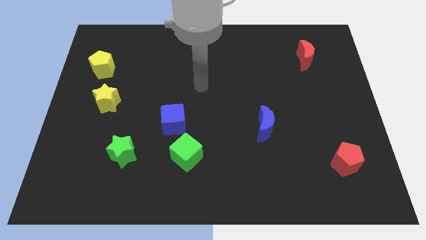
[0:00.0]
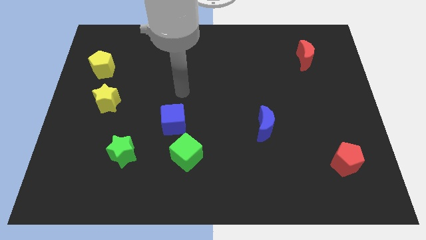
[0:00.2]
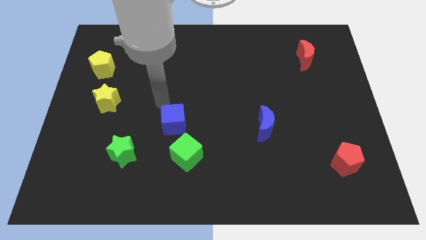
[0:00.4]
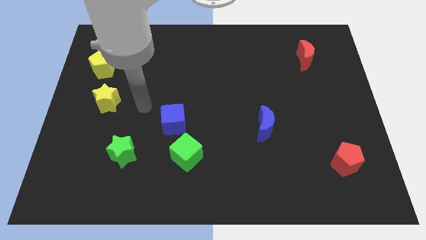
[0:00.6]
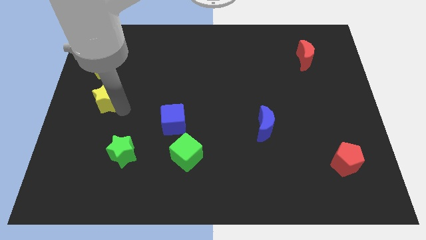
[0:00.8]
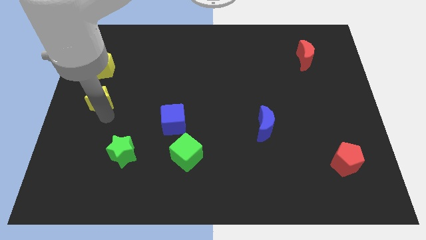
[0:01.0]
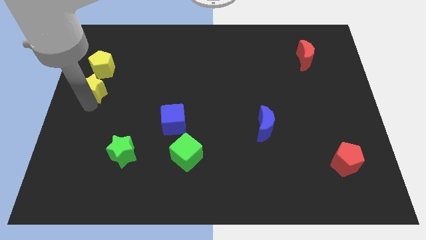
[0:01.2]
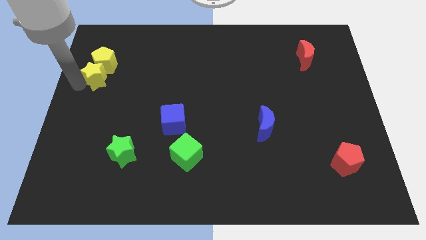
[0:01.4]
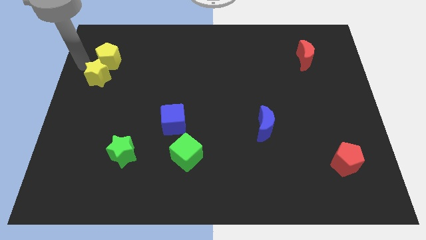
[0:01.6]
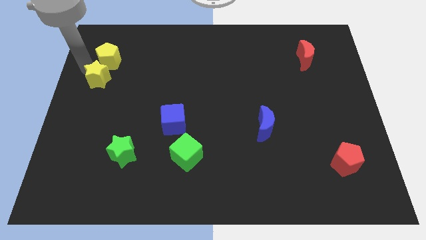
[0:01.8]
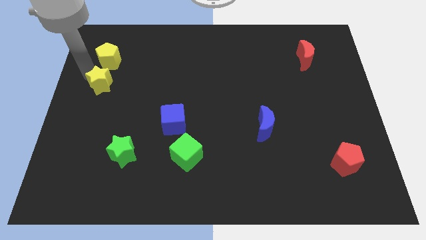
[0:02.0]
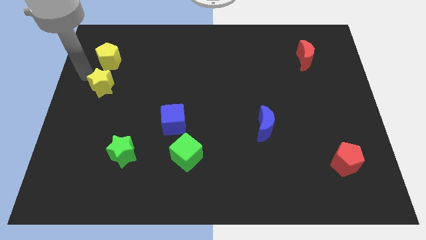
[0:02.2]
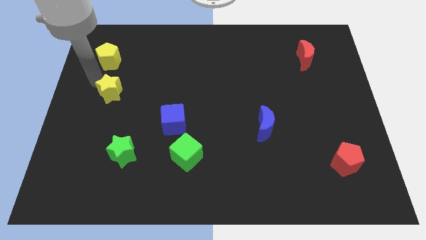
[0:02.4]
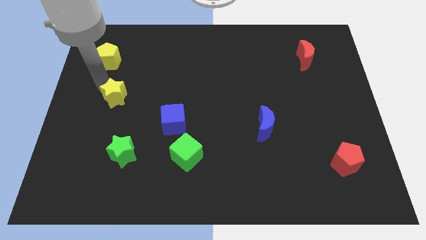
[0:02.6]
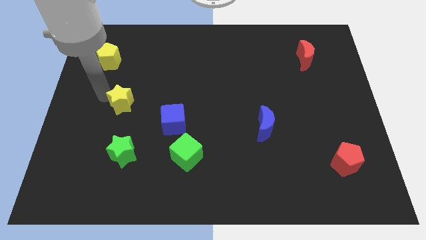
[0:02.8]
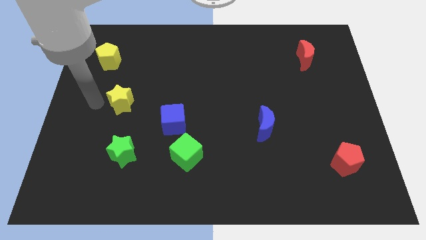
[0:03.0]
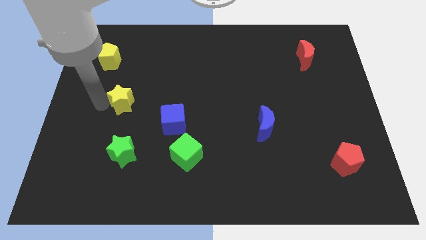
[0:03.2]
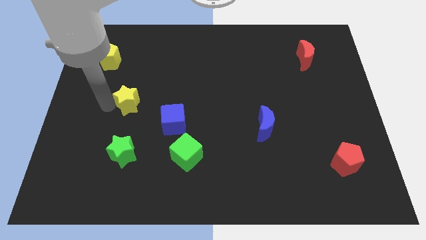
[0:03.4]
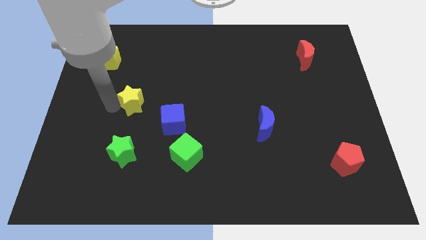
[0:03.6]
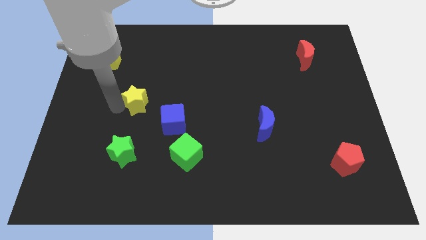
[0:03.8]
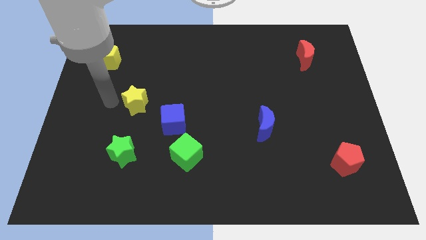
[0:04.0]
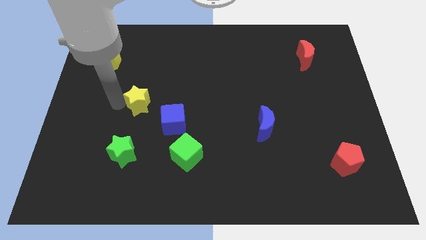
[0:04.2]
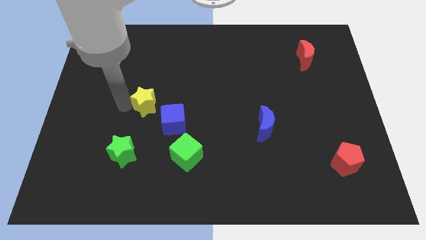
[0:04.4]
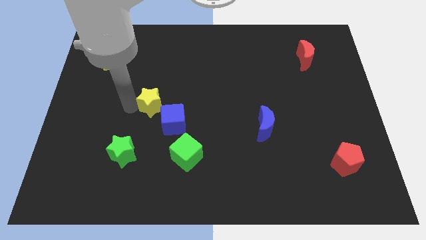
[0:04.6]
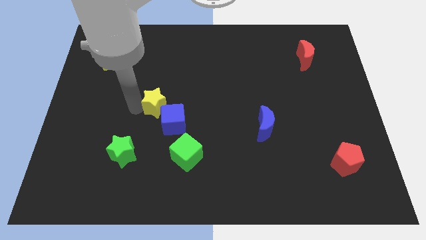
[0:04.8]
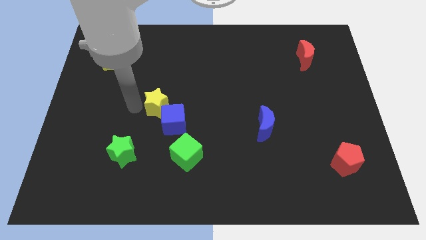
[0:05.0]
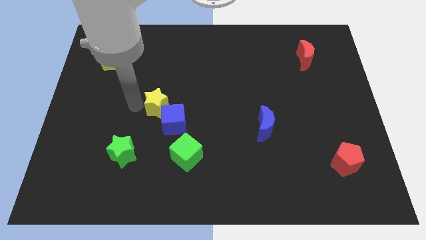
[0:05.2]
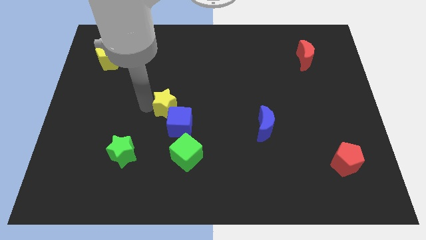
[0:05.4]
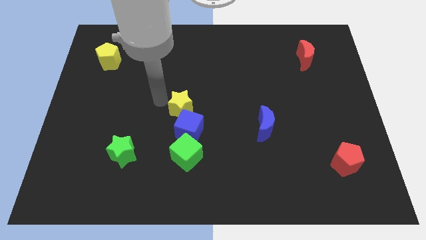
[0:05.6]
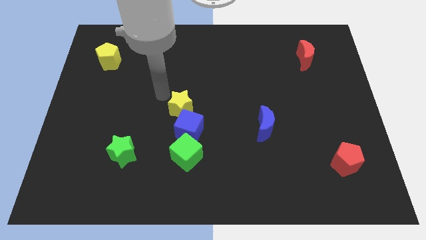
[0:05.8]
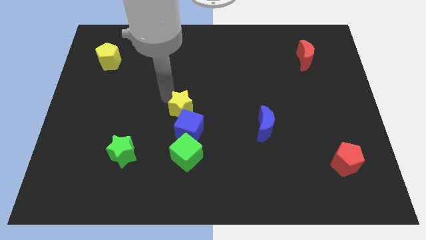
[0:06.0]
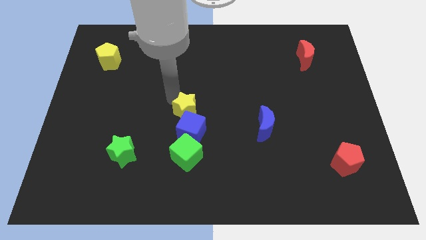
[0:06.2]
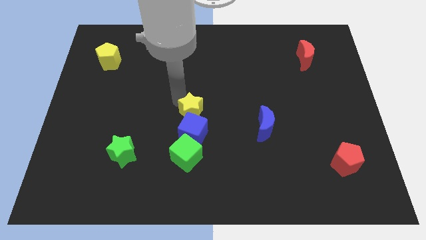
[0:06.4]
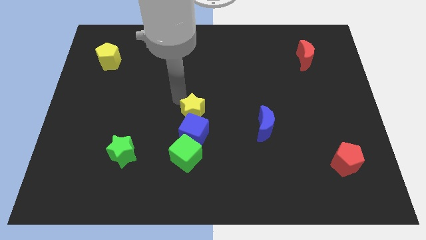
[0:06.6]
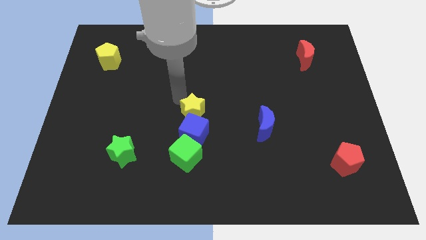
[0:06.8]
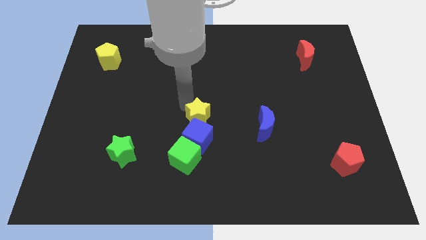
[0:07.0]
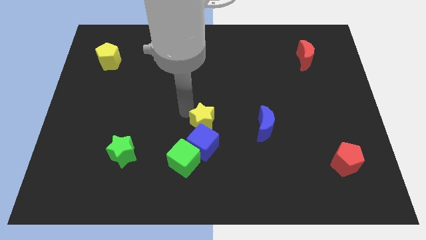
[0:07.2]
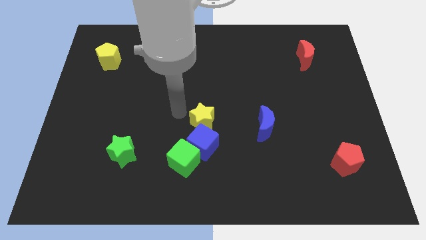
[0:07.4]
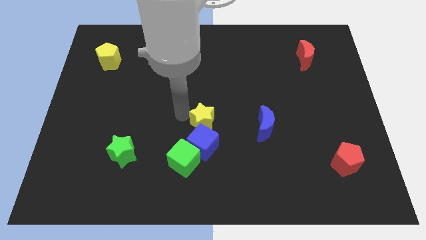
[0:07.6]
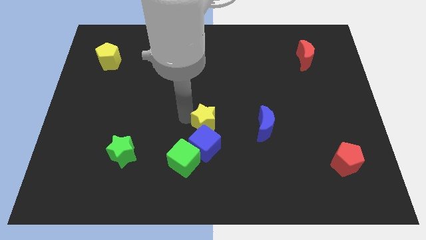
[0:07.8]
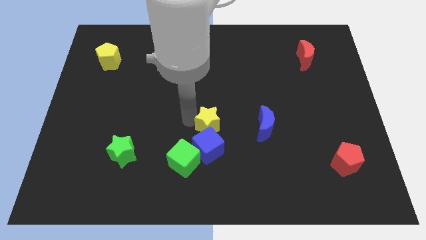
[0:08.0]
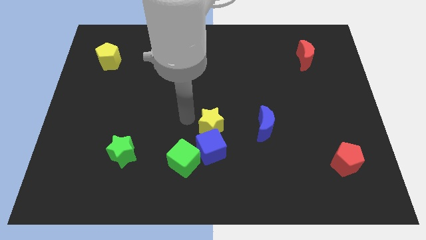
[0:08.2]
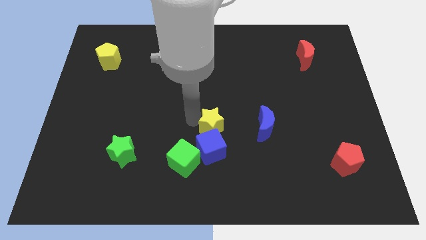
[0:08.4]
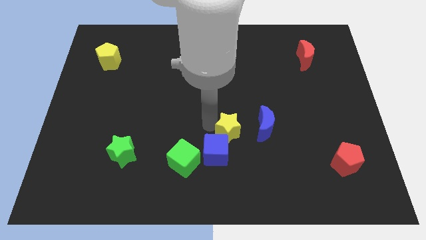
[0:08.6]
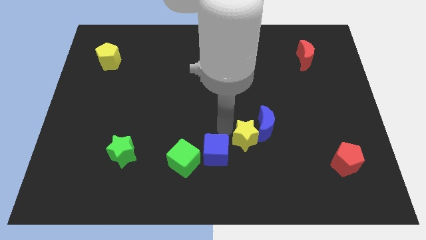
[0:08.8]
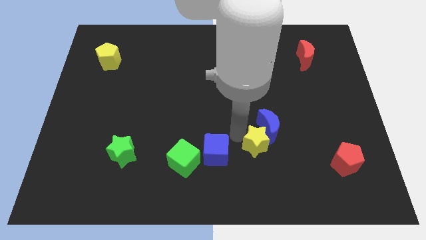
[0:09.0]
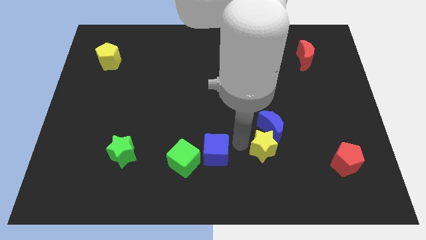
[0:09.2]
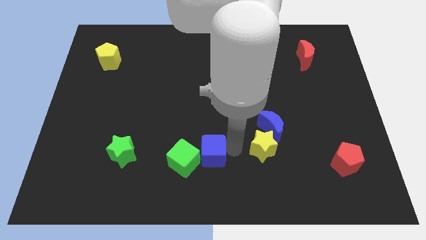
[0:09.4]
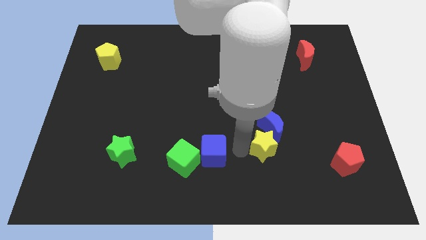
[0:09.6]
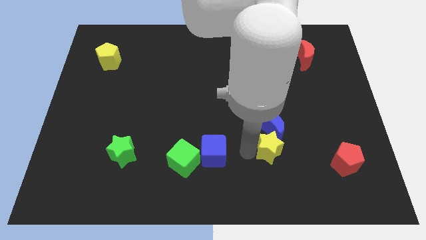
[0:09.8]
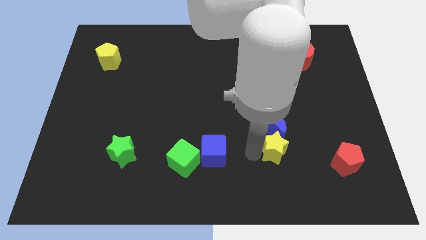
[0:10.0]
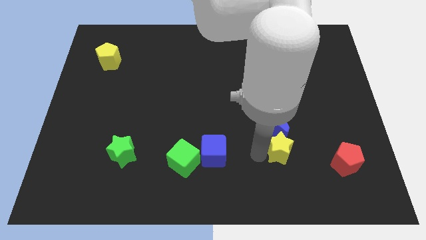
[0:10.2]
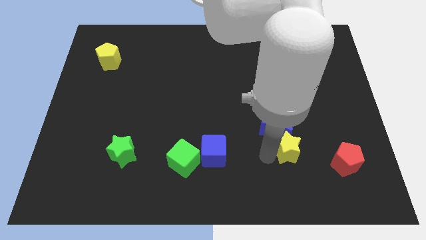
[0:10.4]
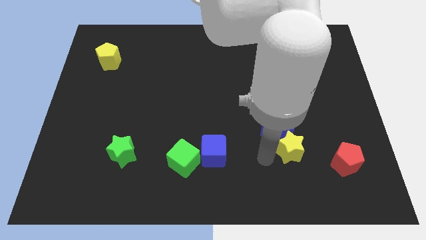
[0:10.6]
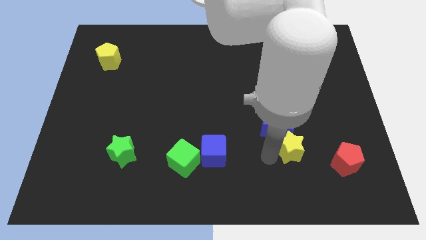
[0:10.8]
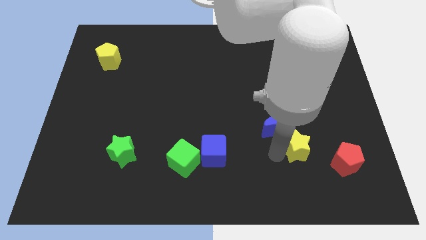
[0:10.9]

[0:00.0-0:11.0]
put the yellow star diagonally up and to the left of the red pentagon

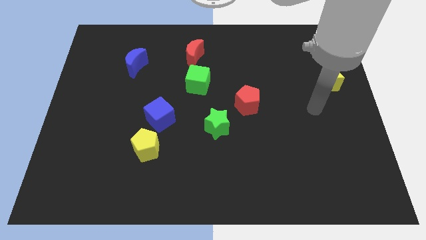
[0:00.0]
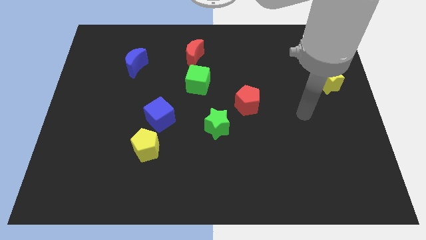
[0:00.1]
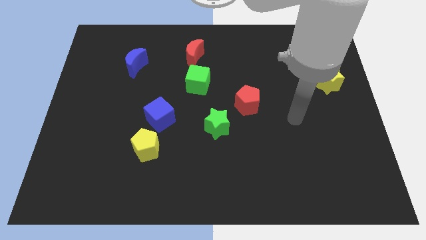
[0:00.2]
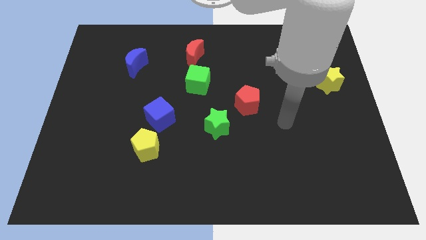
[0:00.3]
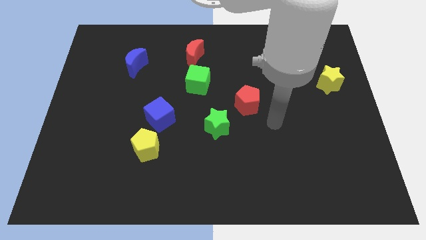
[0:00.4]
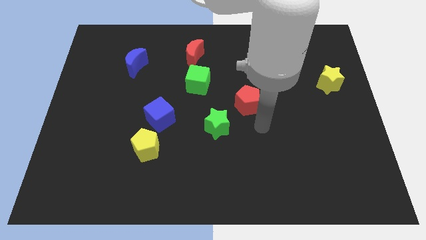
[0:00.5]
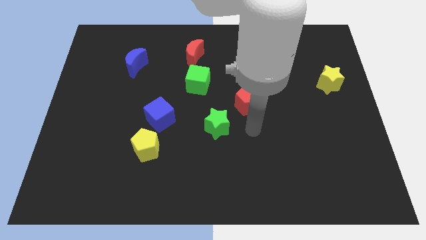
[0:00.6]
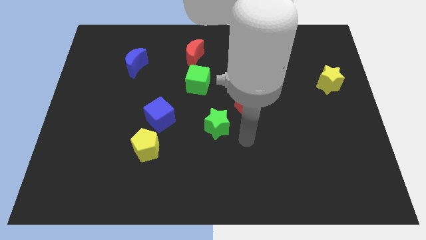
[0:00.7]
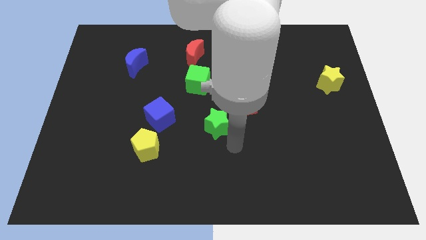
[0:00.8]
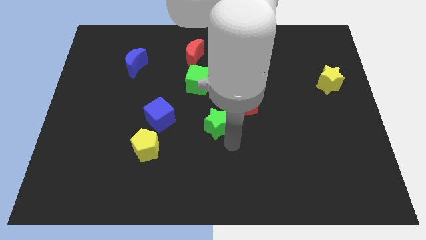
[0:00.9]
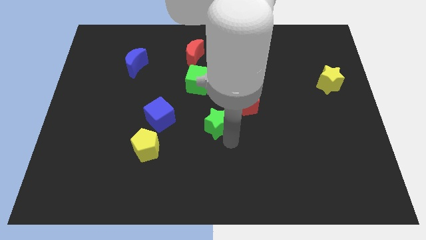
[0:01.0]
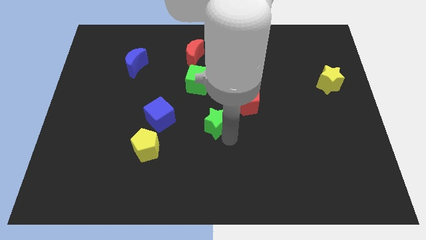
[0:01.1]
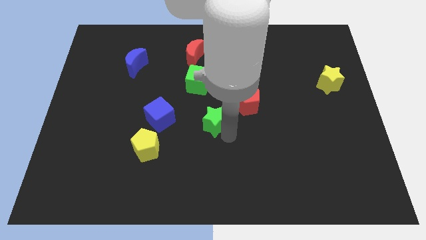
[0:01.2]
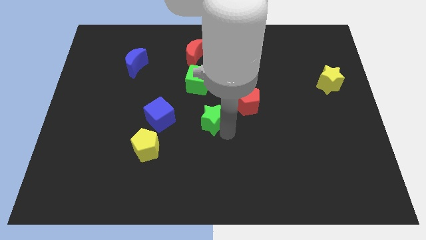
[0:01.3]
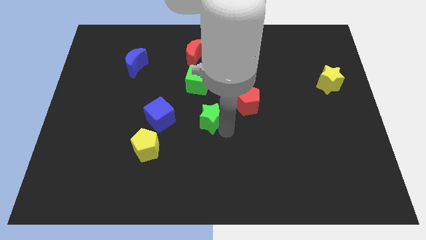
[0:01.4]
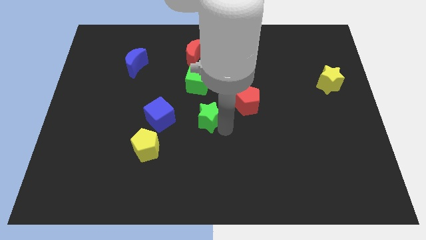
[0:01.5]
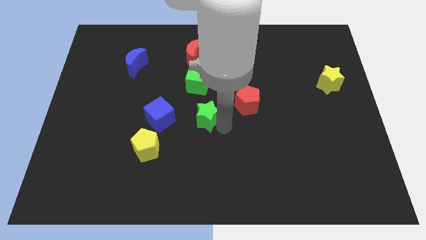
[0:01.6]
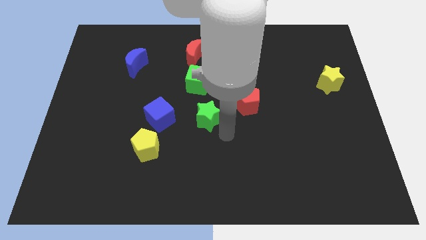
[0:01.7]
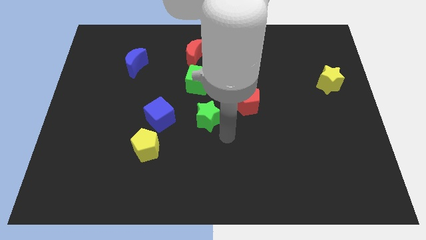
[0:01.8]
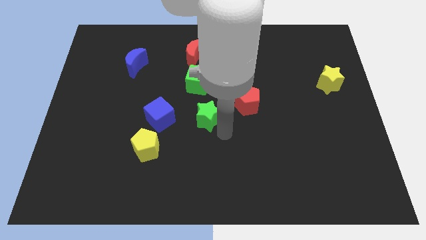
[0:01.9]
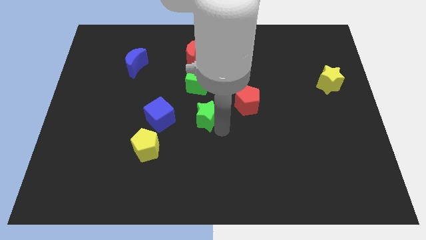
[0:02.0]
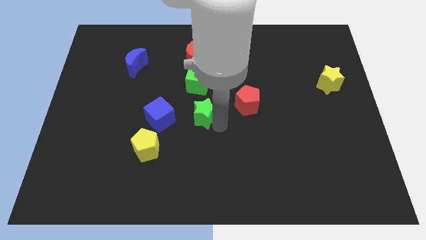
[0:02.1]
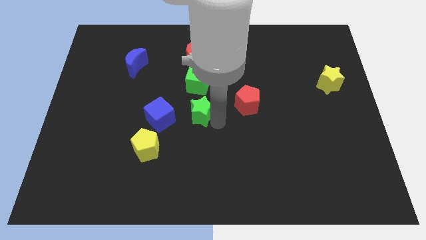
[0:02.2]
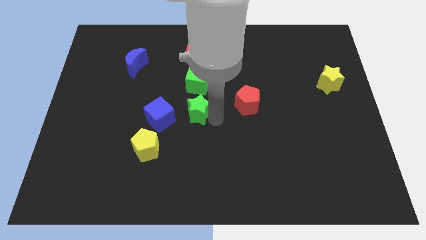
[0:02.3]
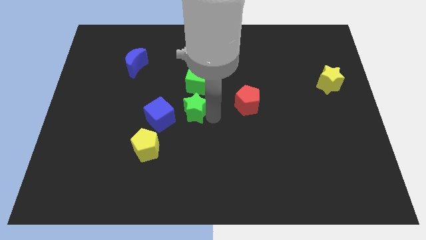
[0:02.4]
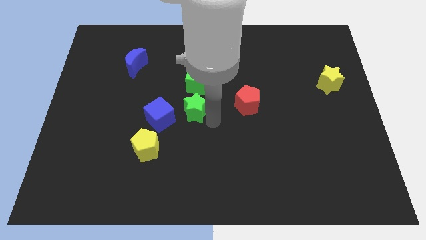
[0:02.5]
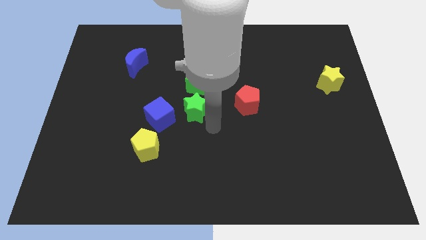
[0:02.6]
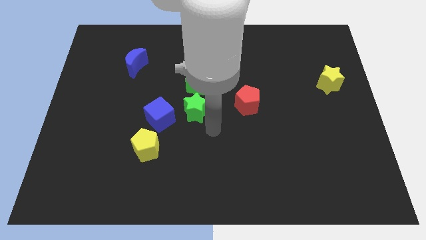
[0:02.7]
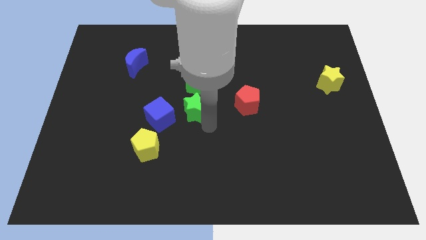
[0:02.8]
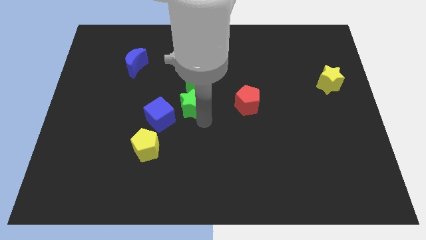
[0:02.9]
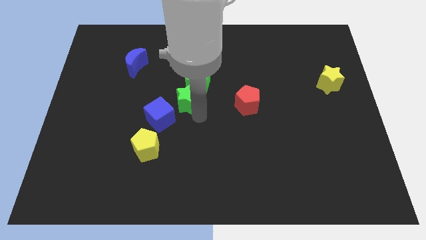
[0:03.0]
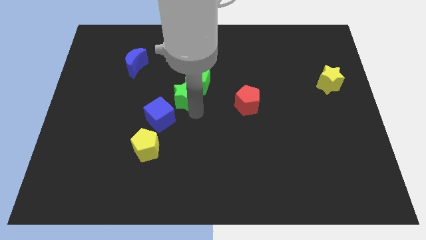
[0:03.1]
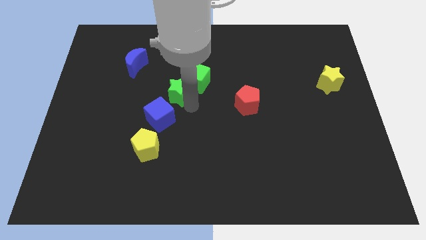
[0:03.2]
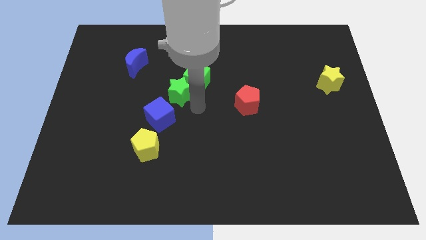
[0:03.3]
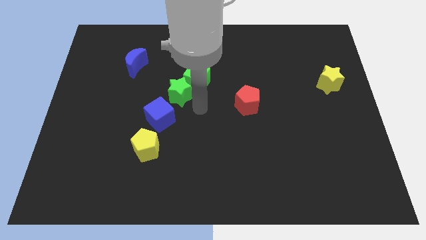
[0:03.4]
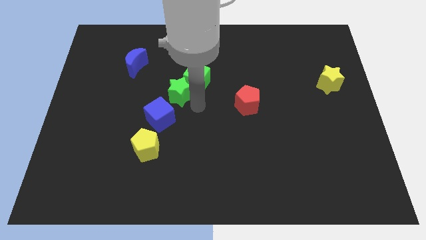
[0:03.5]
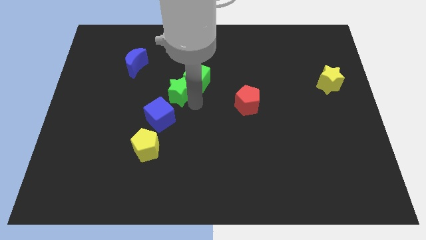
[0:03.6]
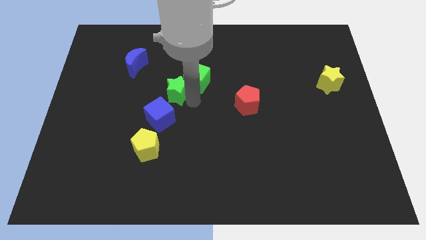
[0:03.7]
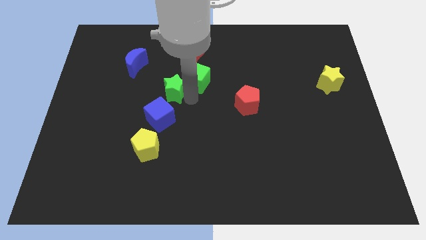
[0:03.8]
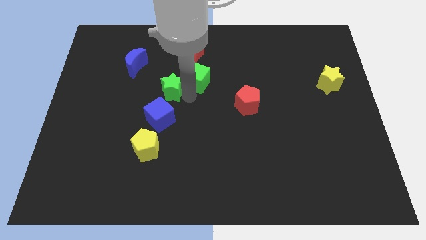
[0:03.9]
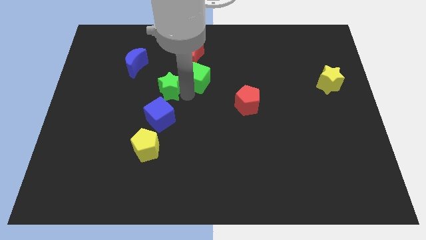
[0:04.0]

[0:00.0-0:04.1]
move the green star diagonally down and to the right of the blue moon
